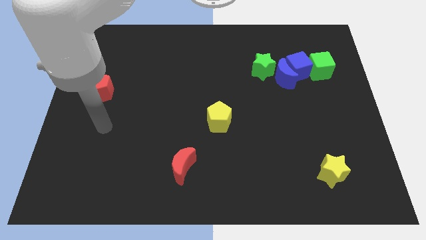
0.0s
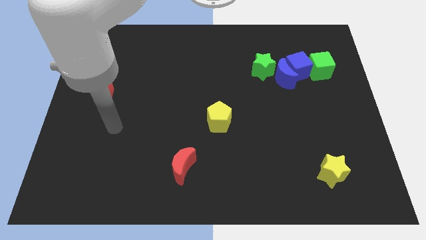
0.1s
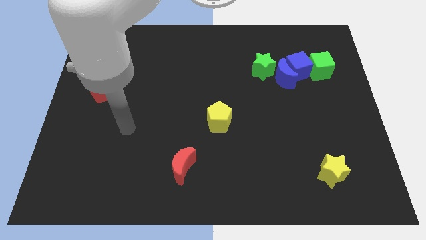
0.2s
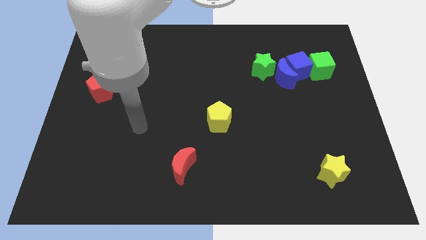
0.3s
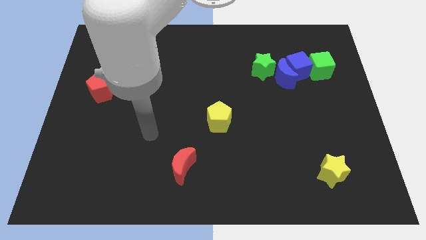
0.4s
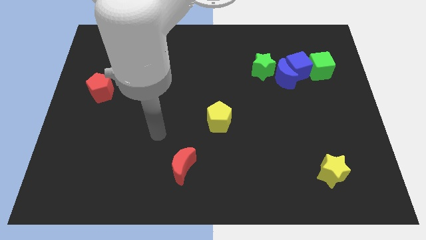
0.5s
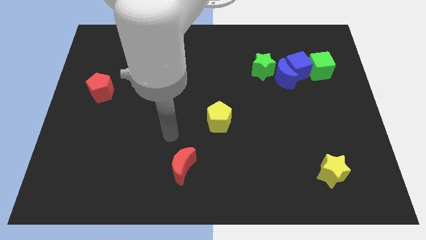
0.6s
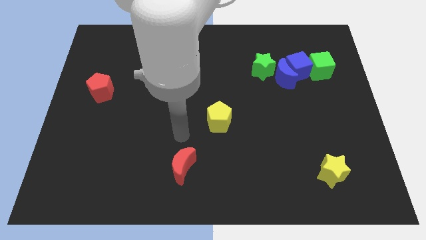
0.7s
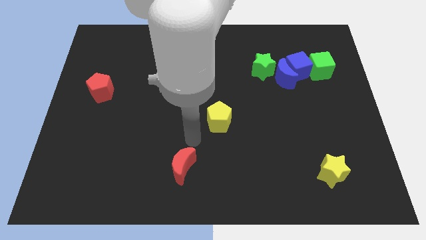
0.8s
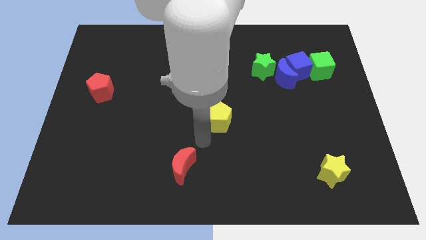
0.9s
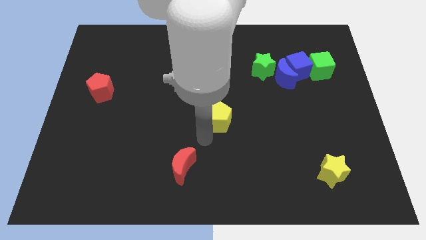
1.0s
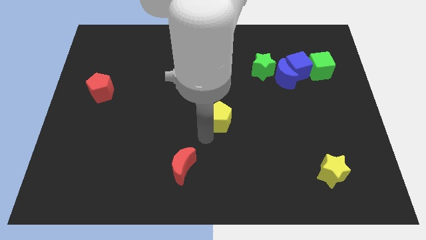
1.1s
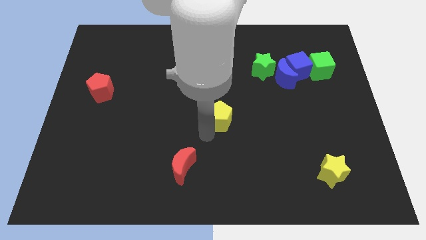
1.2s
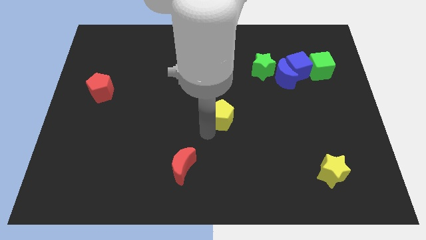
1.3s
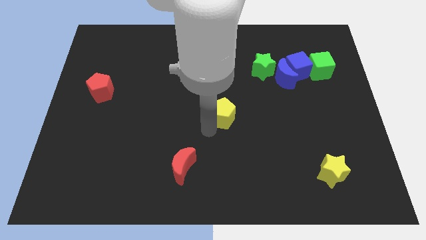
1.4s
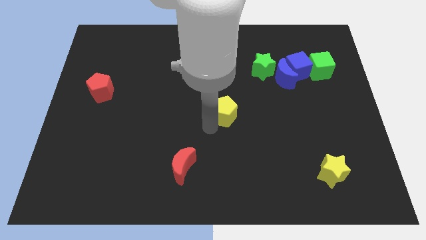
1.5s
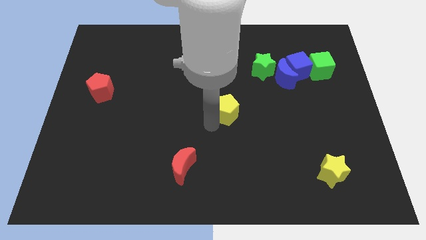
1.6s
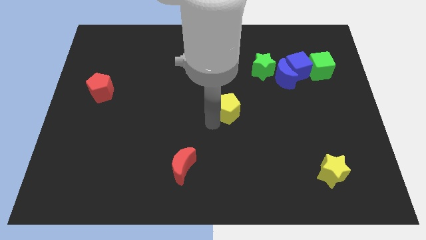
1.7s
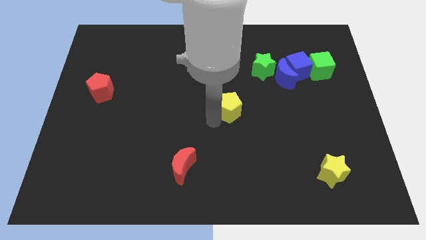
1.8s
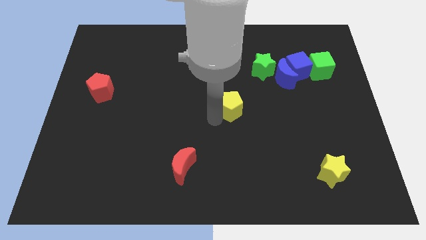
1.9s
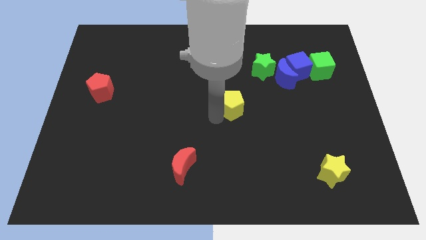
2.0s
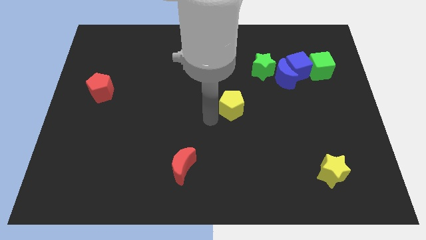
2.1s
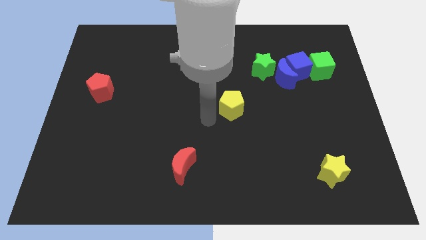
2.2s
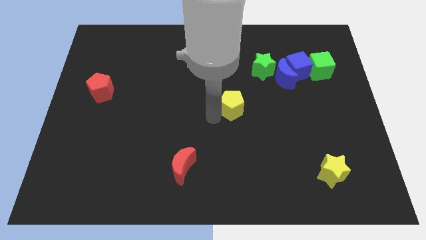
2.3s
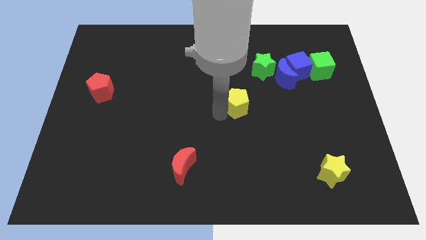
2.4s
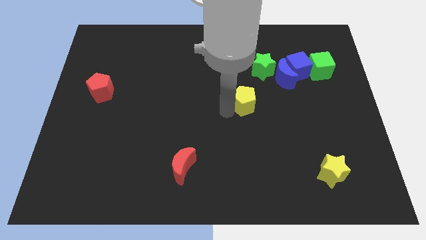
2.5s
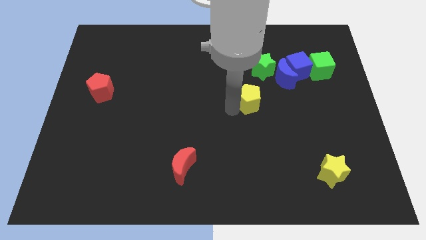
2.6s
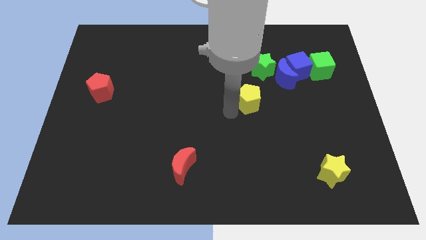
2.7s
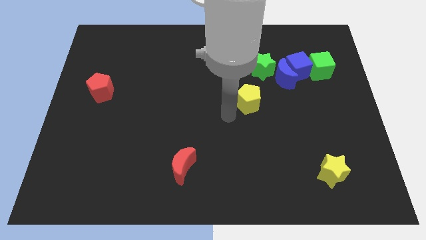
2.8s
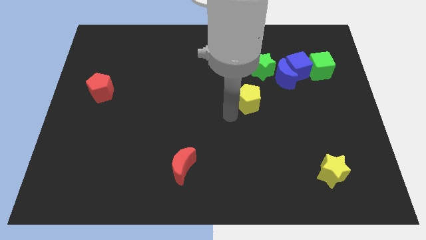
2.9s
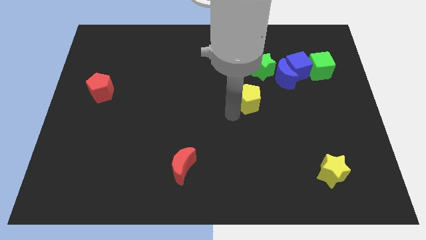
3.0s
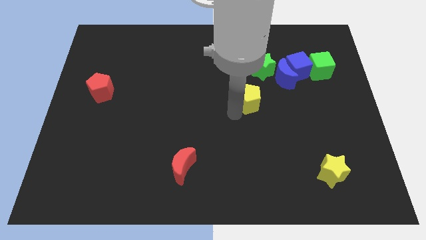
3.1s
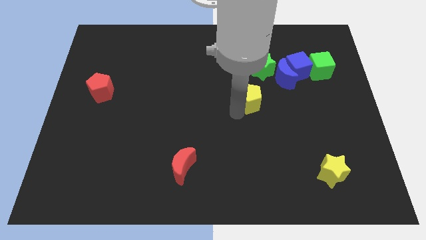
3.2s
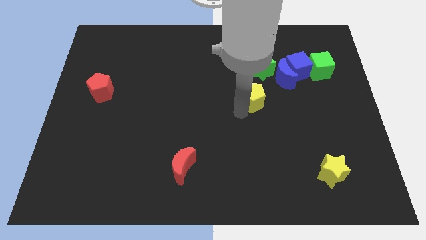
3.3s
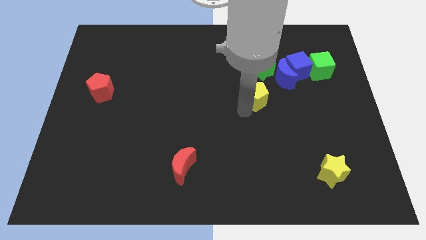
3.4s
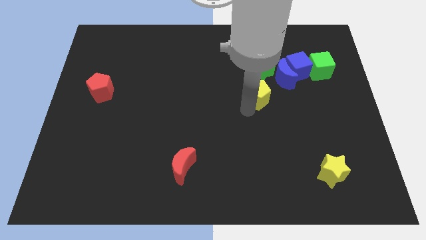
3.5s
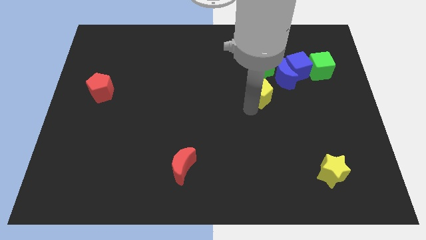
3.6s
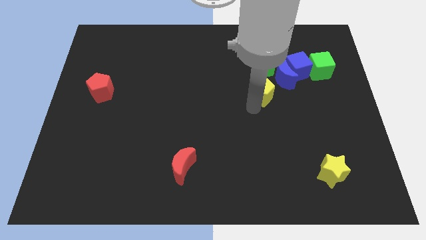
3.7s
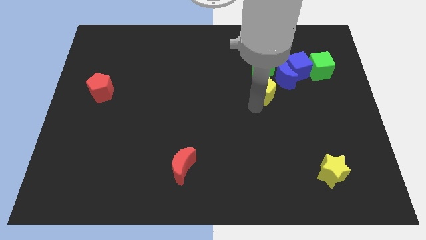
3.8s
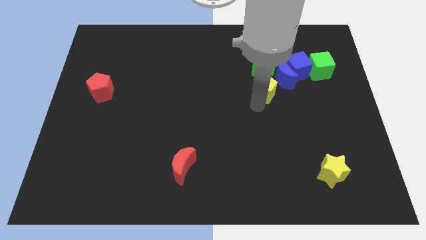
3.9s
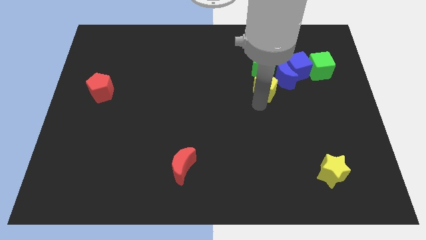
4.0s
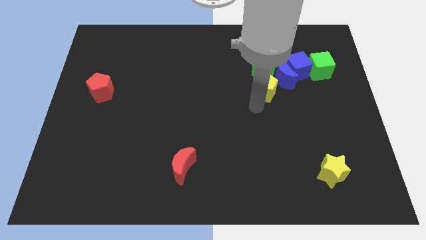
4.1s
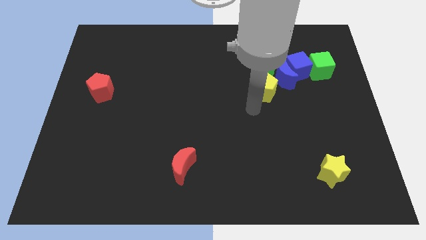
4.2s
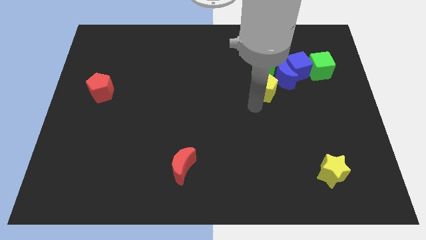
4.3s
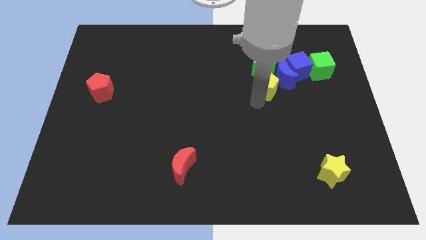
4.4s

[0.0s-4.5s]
slide the yellow pentagon towards the blue moon

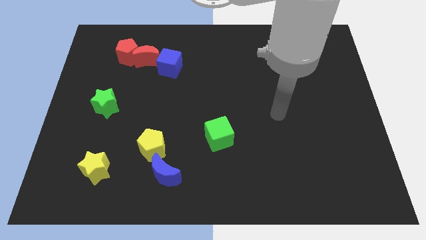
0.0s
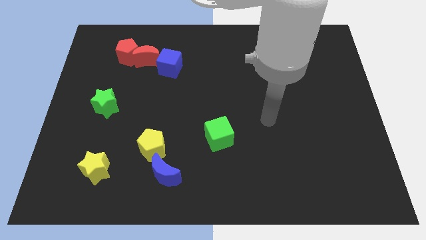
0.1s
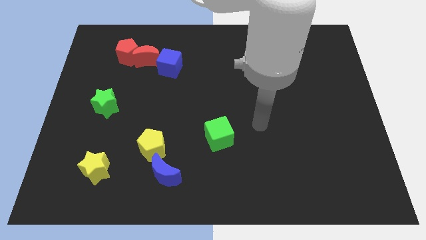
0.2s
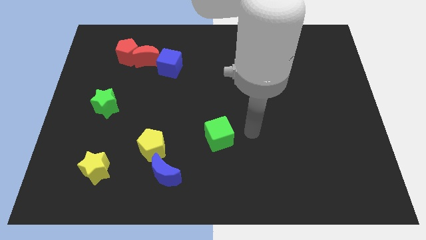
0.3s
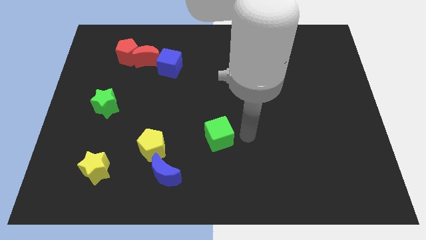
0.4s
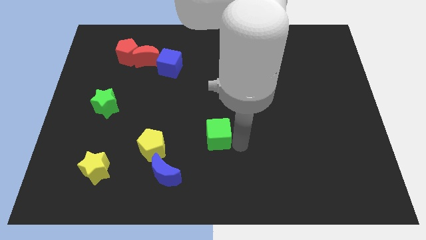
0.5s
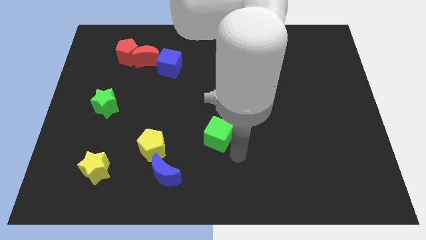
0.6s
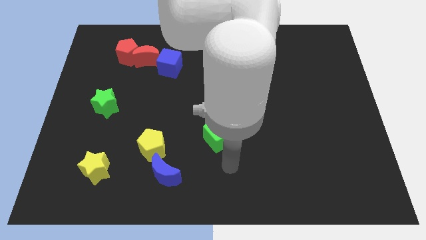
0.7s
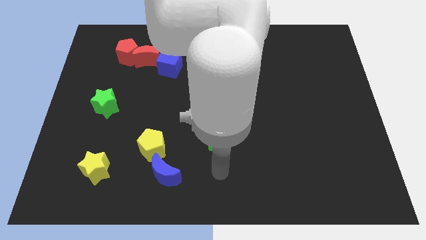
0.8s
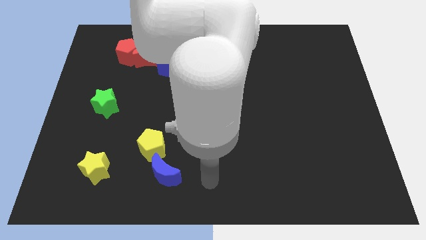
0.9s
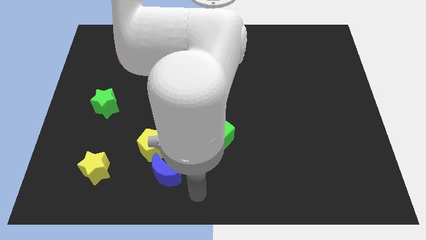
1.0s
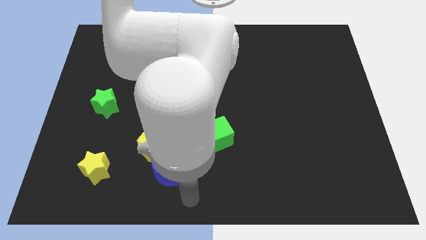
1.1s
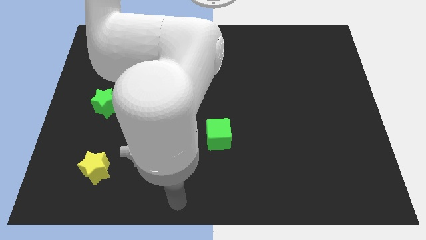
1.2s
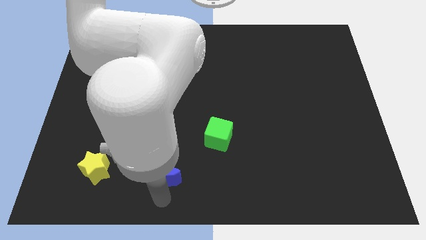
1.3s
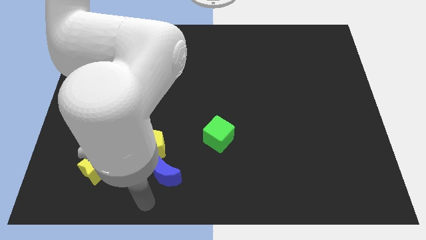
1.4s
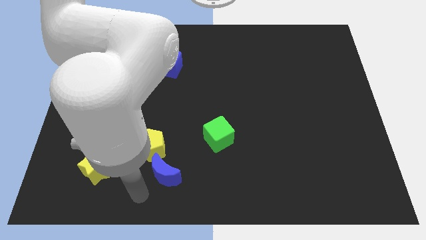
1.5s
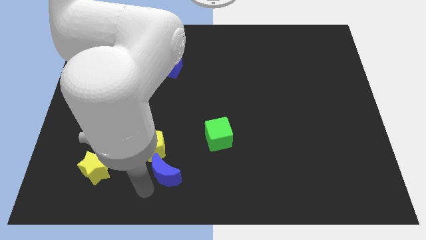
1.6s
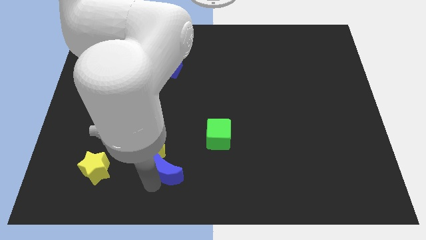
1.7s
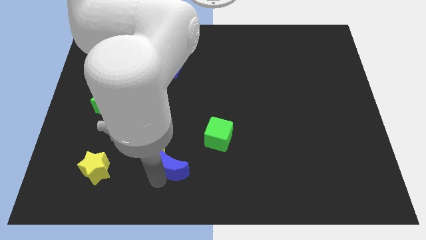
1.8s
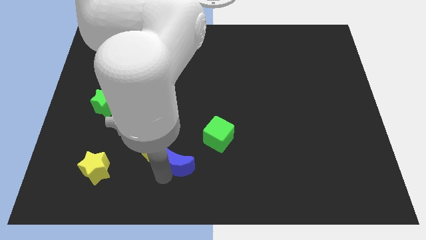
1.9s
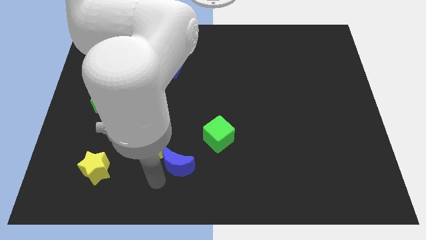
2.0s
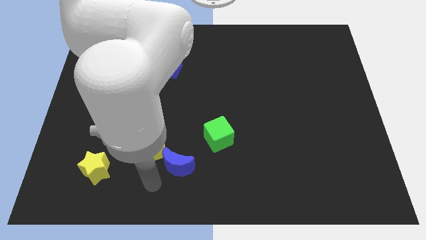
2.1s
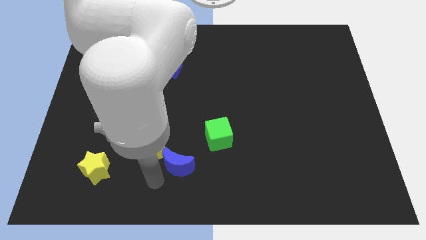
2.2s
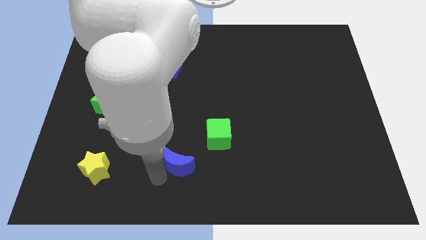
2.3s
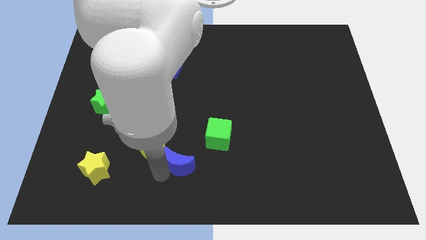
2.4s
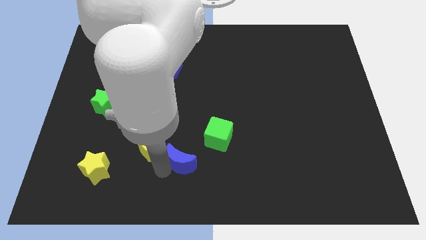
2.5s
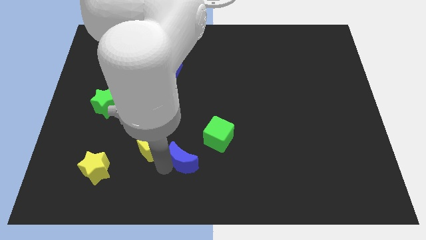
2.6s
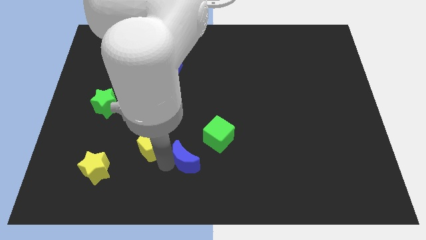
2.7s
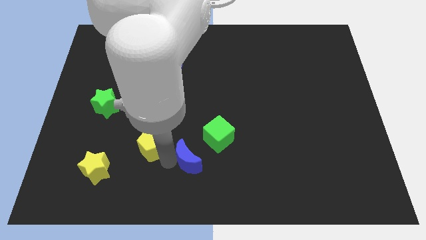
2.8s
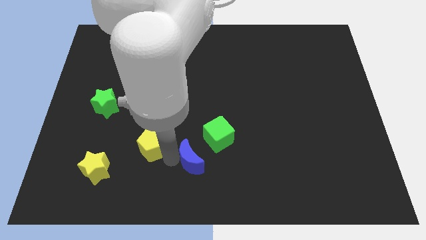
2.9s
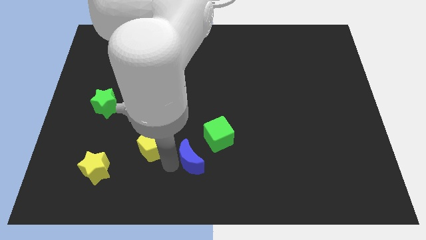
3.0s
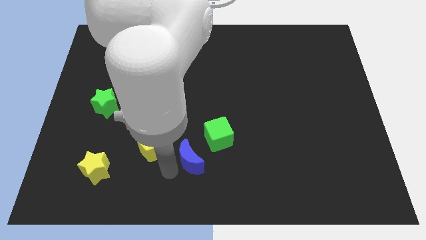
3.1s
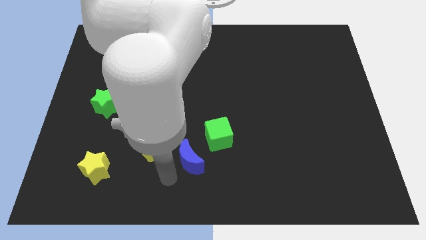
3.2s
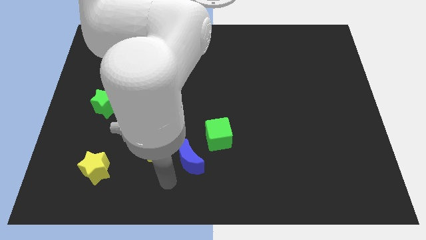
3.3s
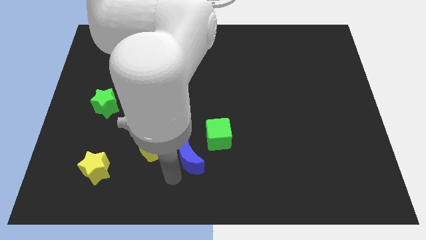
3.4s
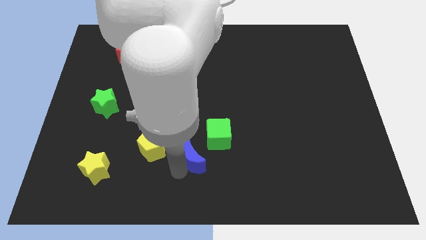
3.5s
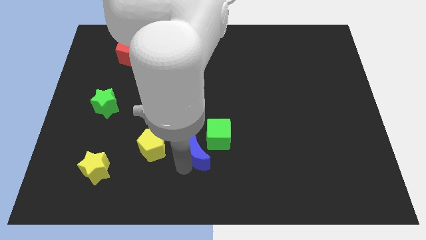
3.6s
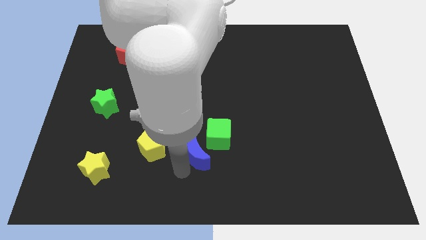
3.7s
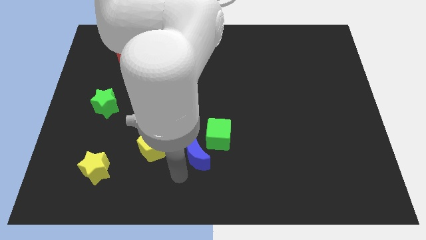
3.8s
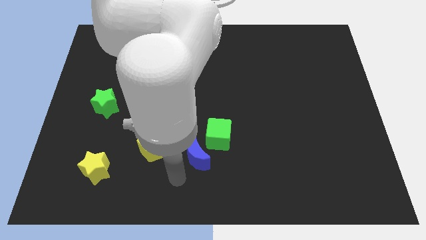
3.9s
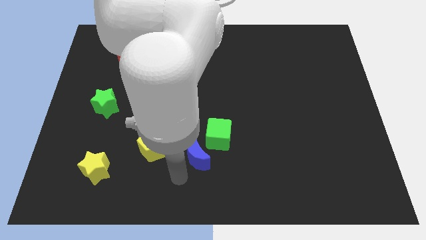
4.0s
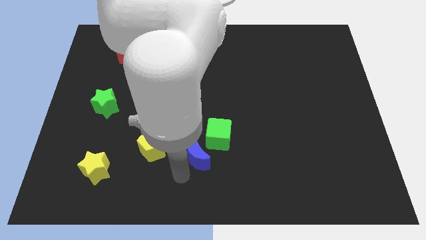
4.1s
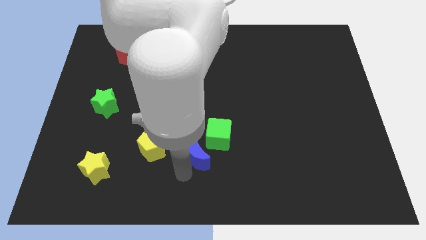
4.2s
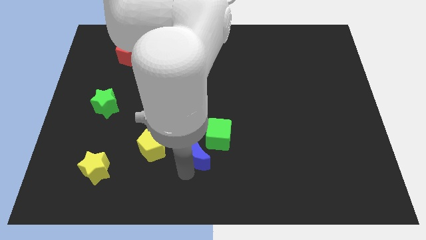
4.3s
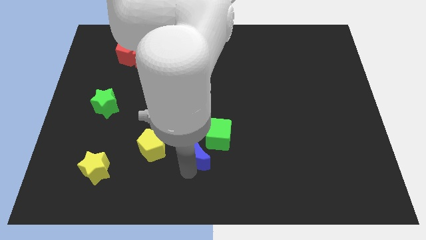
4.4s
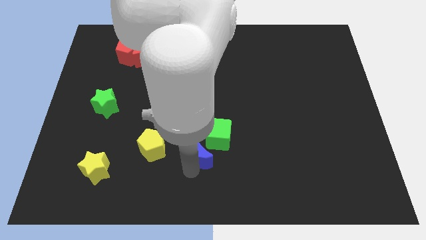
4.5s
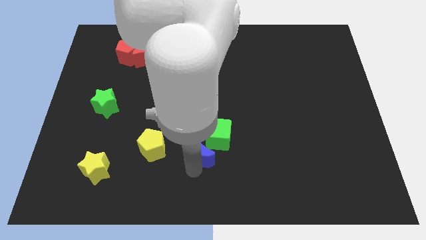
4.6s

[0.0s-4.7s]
slide the blue moon to the green cube
